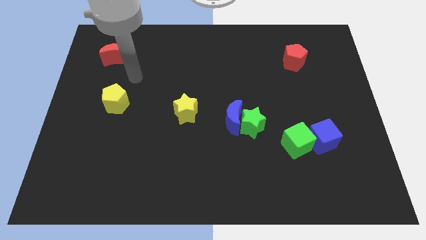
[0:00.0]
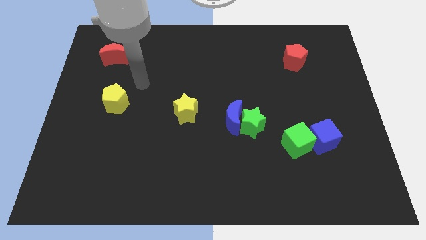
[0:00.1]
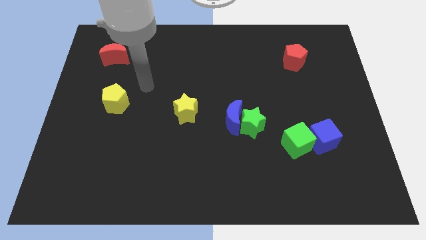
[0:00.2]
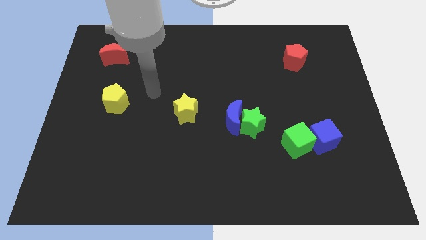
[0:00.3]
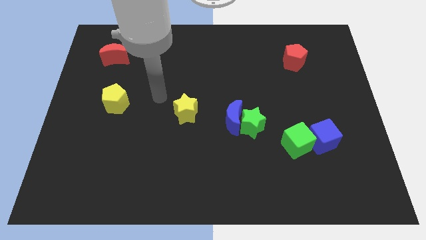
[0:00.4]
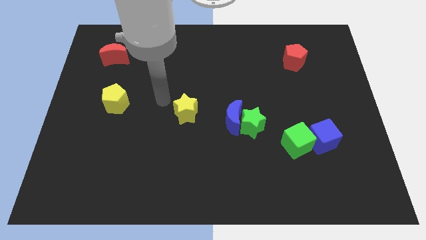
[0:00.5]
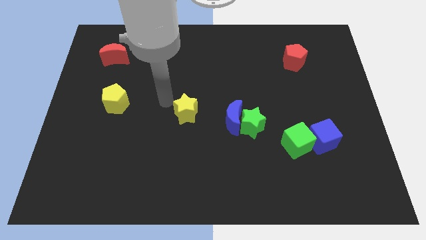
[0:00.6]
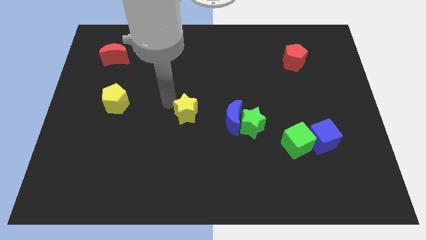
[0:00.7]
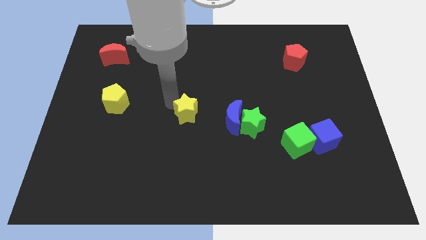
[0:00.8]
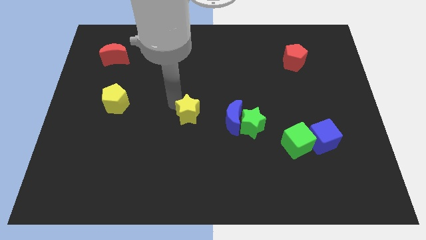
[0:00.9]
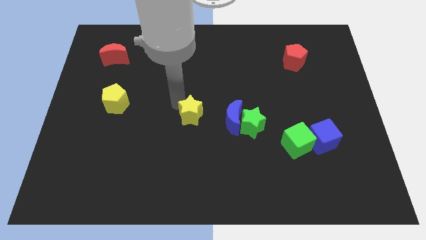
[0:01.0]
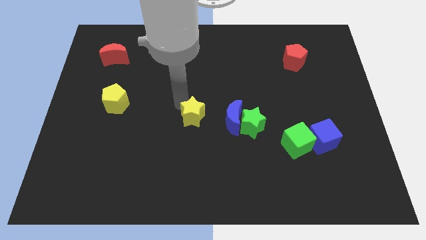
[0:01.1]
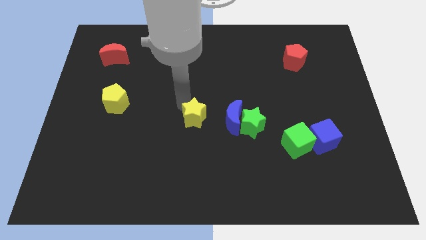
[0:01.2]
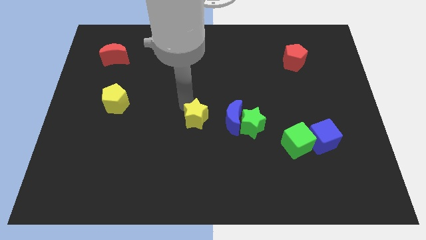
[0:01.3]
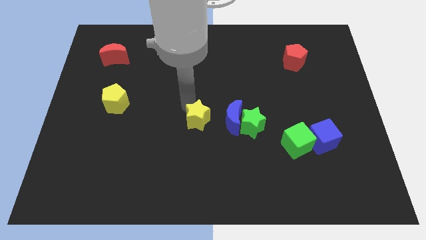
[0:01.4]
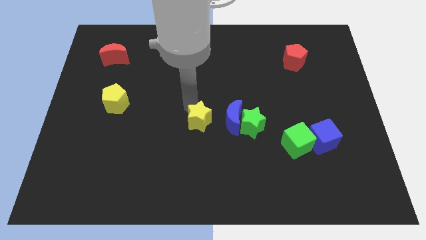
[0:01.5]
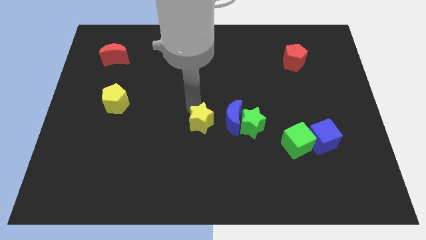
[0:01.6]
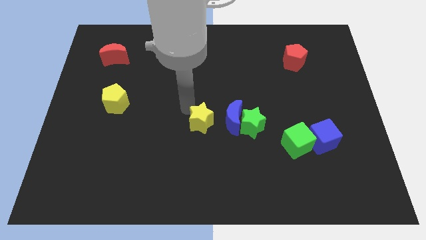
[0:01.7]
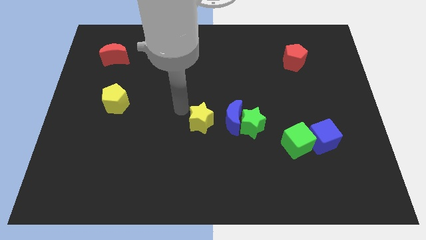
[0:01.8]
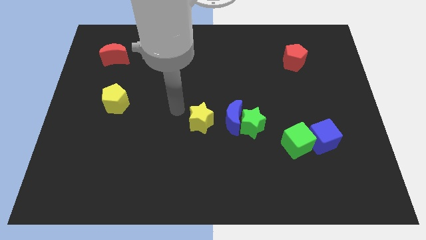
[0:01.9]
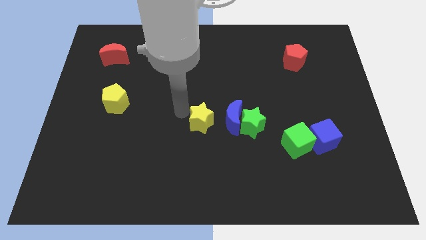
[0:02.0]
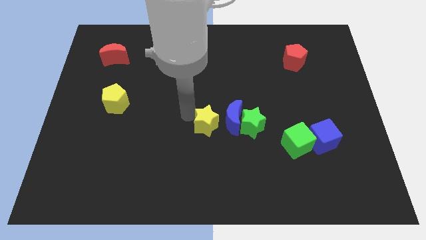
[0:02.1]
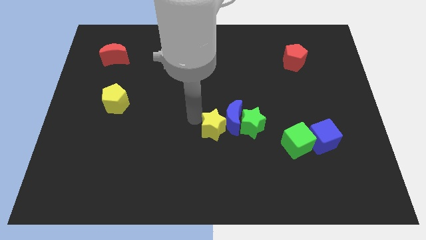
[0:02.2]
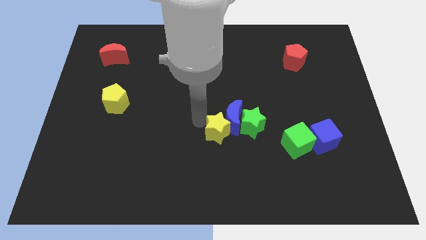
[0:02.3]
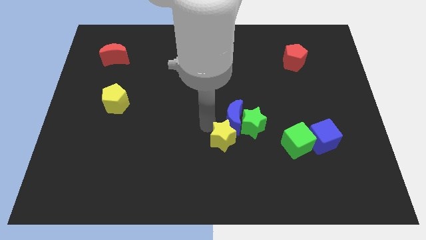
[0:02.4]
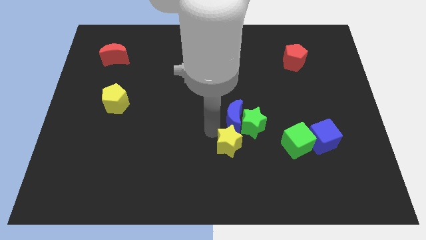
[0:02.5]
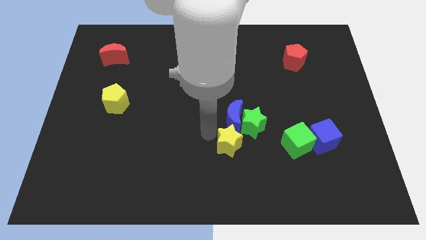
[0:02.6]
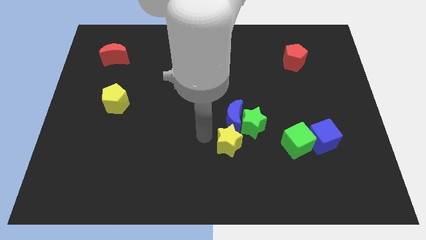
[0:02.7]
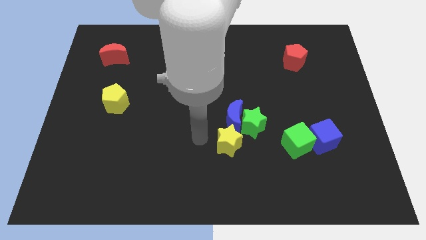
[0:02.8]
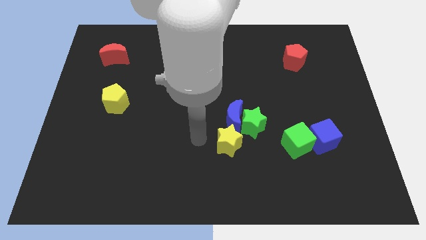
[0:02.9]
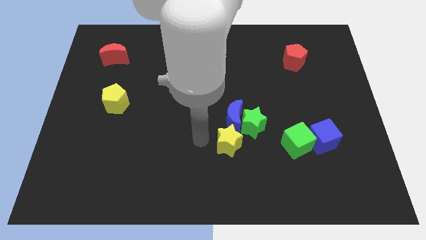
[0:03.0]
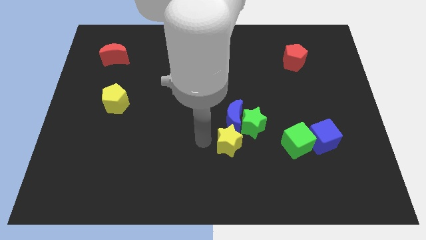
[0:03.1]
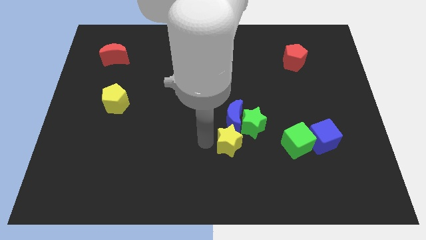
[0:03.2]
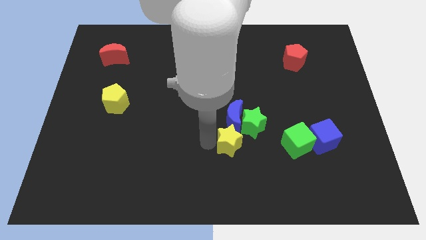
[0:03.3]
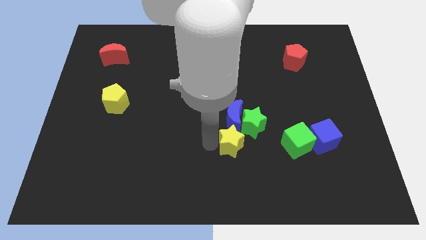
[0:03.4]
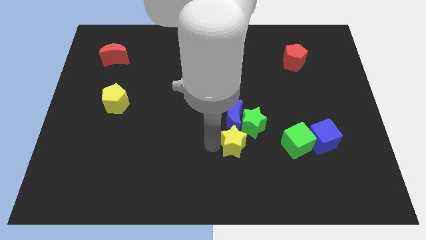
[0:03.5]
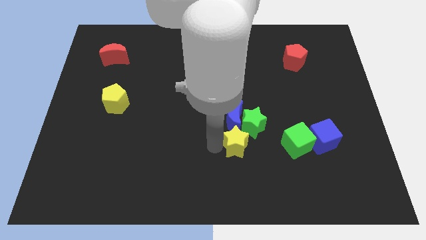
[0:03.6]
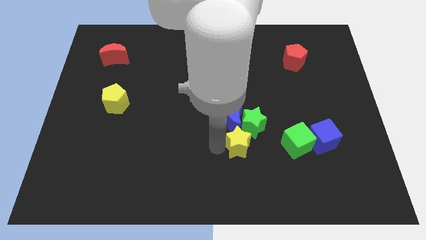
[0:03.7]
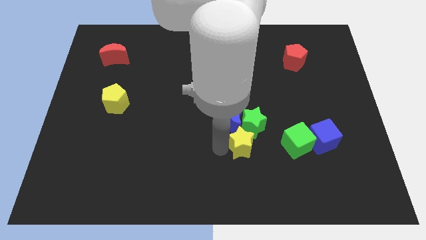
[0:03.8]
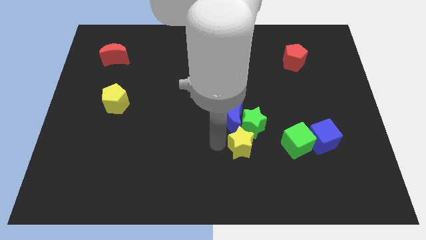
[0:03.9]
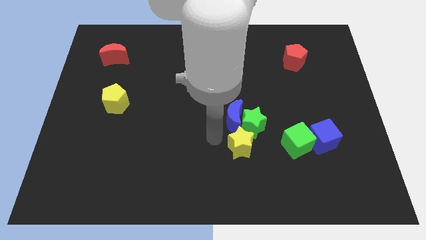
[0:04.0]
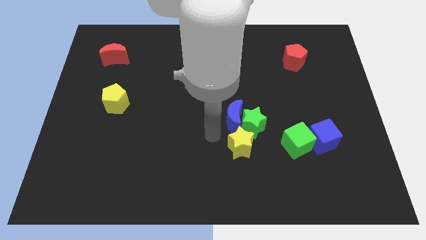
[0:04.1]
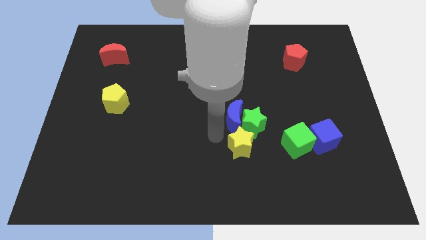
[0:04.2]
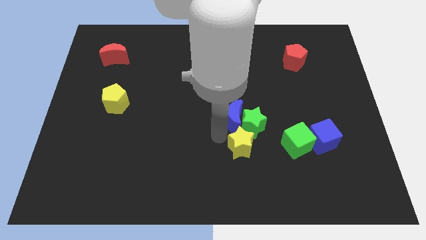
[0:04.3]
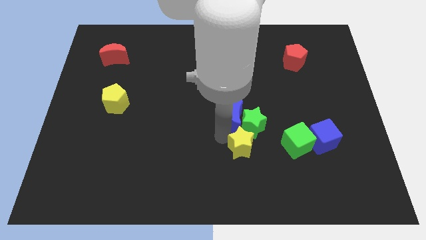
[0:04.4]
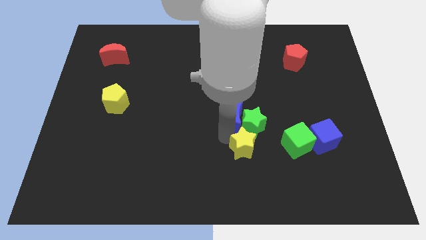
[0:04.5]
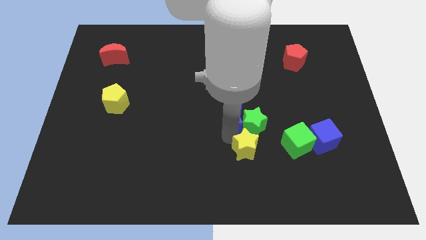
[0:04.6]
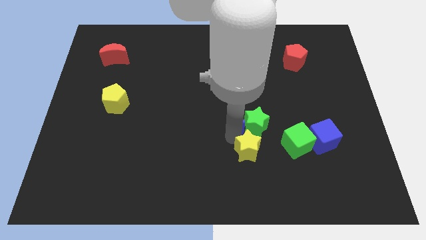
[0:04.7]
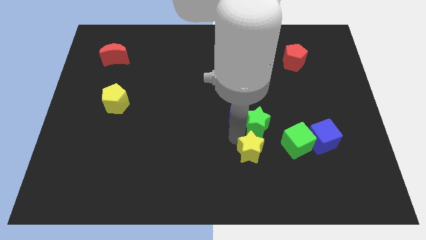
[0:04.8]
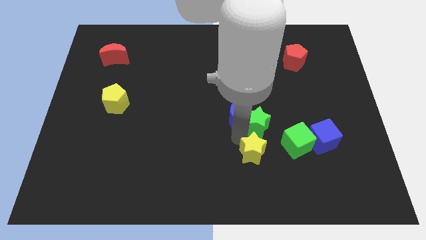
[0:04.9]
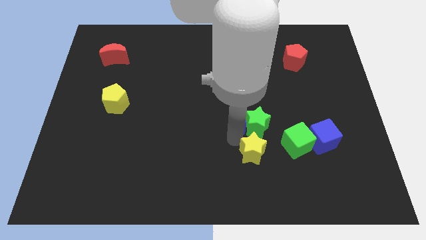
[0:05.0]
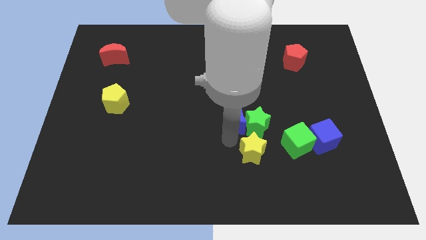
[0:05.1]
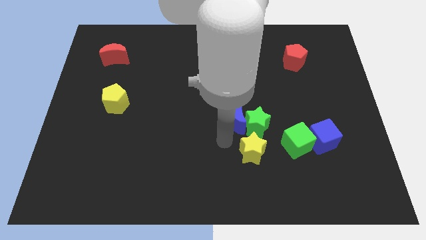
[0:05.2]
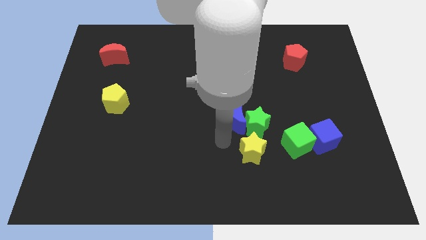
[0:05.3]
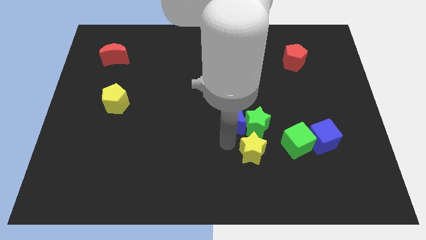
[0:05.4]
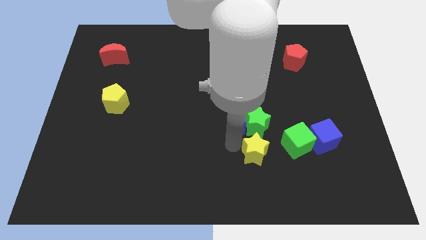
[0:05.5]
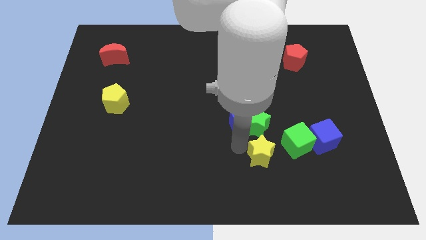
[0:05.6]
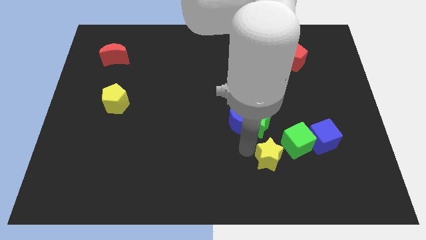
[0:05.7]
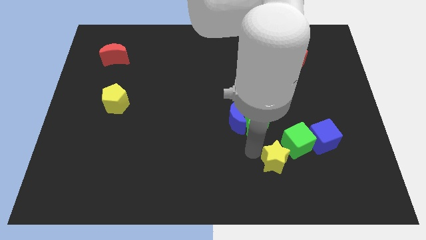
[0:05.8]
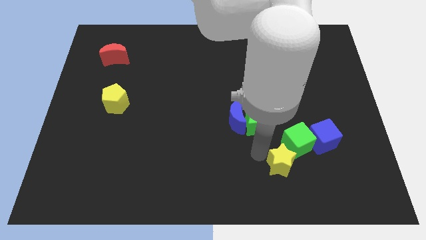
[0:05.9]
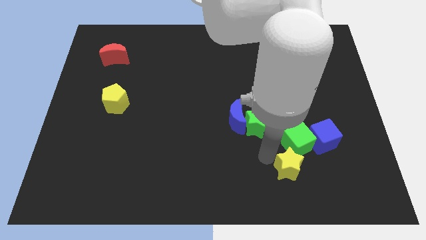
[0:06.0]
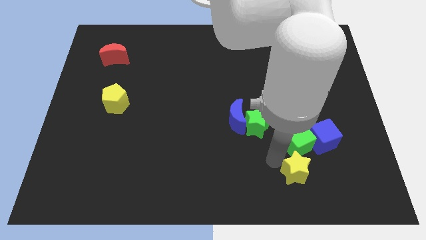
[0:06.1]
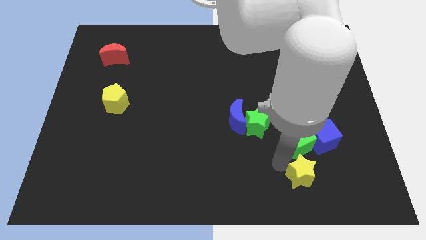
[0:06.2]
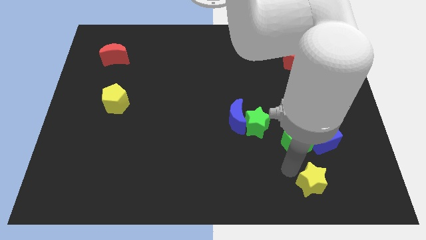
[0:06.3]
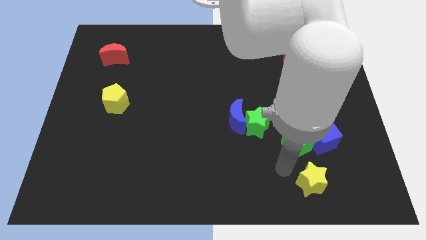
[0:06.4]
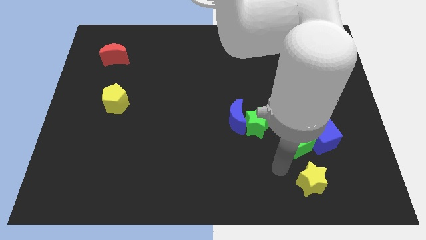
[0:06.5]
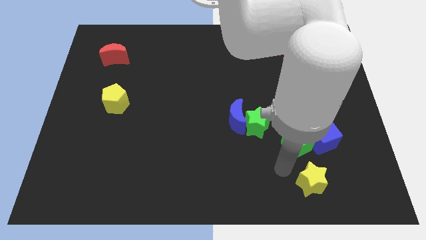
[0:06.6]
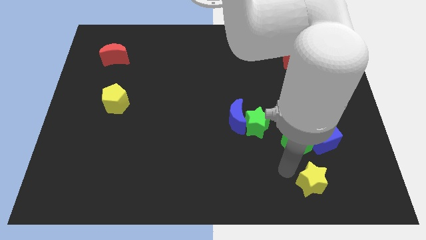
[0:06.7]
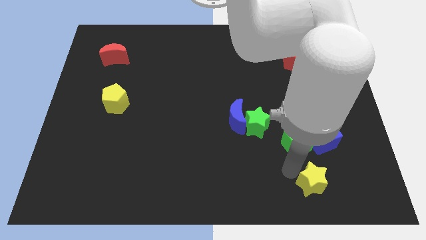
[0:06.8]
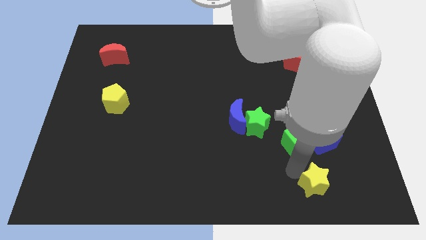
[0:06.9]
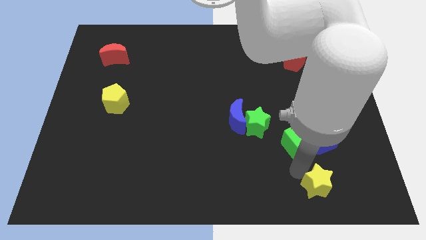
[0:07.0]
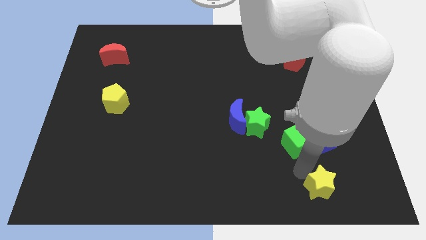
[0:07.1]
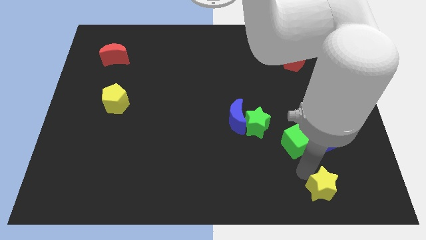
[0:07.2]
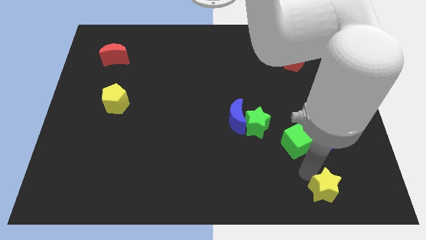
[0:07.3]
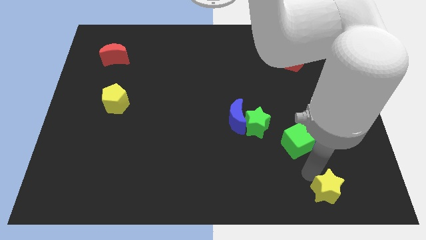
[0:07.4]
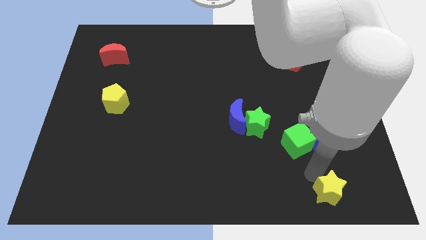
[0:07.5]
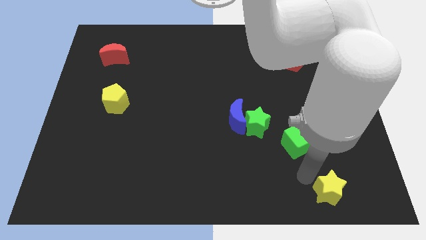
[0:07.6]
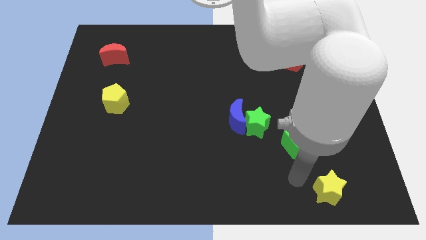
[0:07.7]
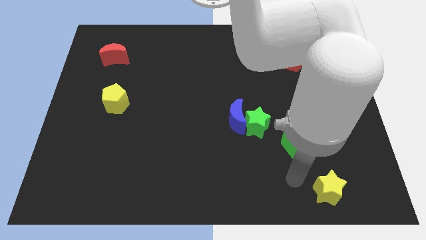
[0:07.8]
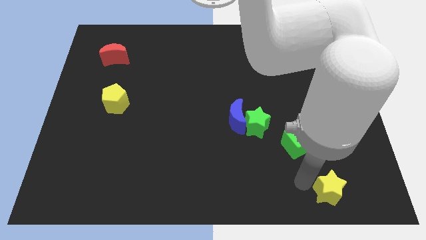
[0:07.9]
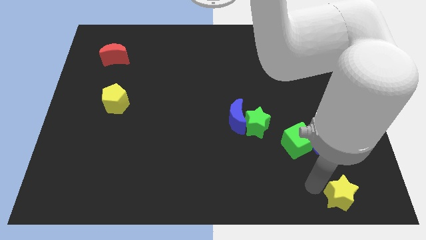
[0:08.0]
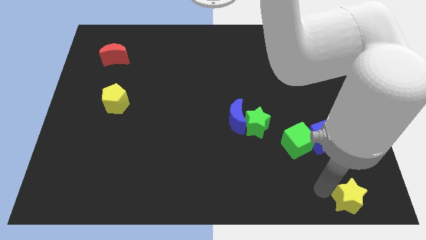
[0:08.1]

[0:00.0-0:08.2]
move the yellow star to the bottom right of the board
